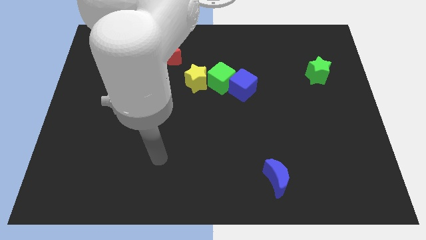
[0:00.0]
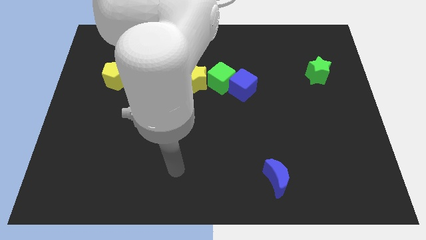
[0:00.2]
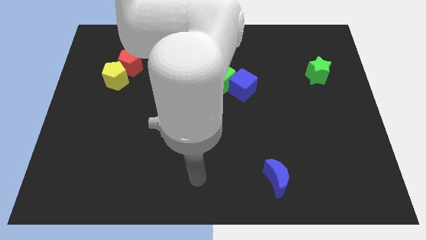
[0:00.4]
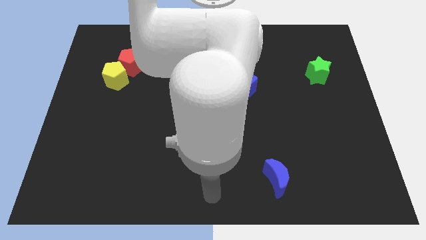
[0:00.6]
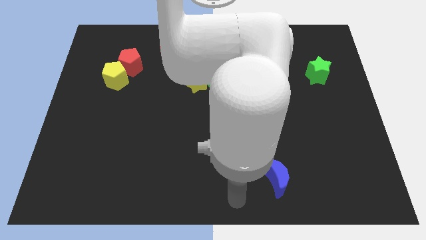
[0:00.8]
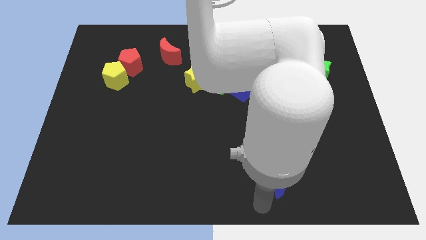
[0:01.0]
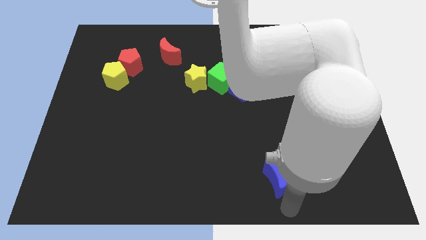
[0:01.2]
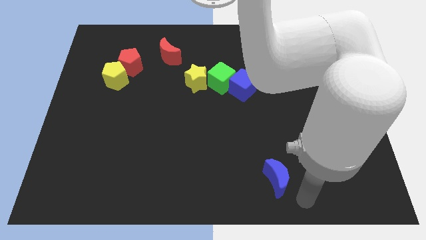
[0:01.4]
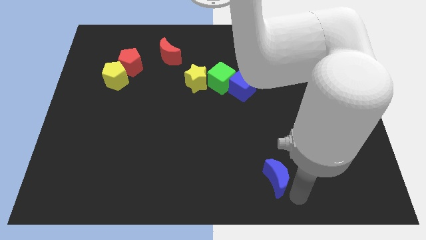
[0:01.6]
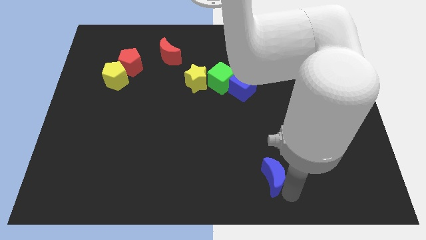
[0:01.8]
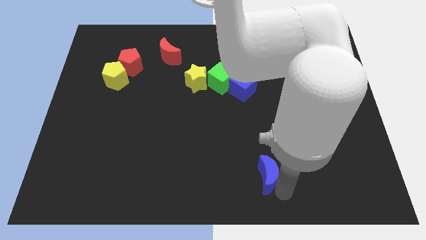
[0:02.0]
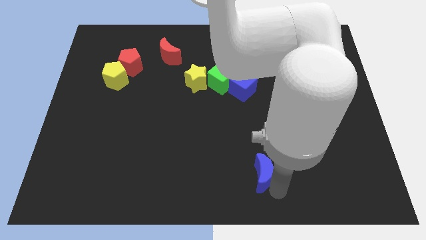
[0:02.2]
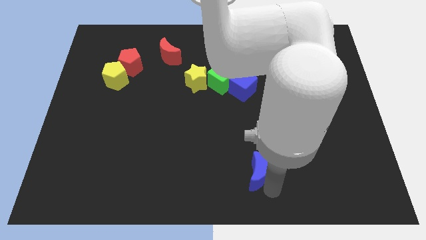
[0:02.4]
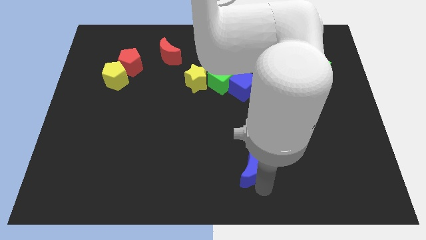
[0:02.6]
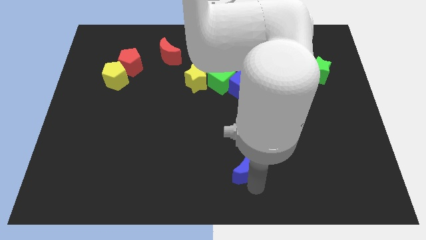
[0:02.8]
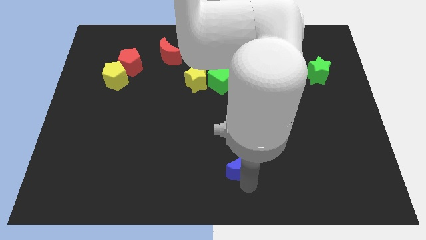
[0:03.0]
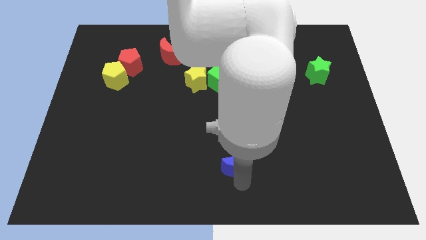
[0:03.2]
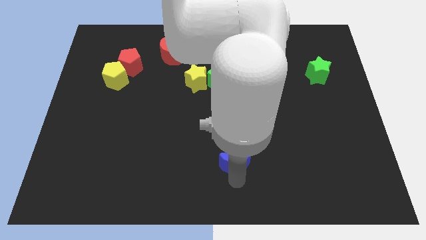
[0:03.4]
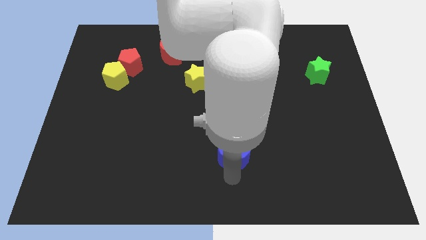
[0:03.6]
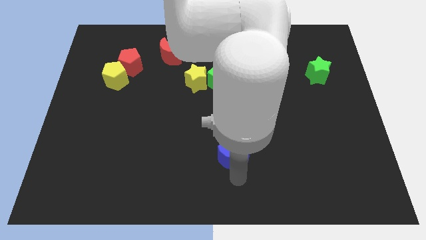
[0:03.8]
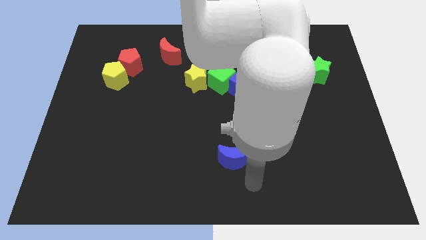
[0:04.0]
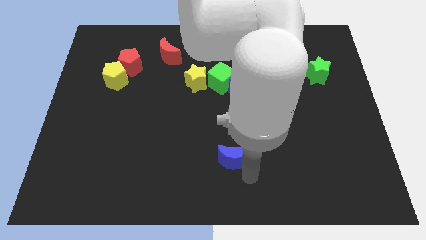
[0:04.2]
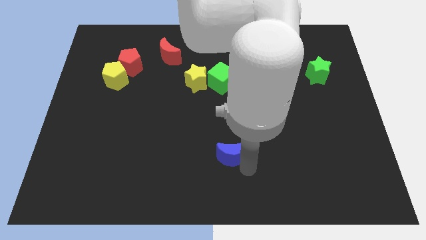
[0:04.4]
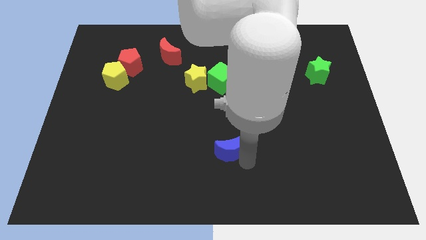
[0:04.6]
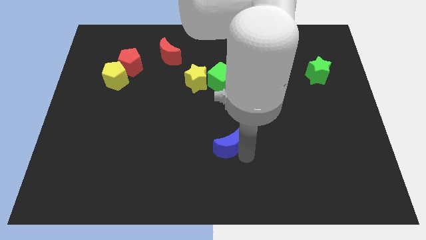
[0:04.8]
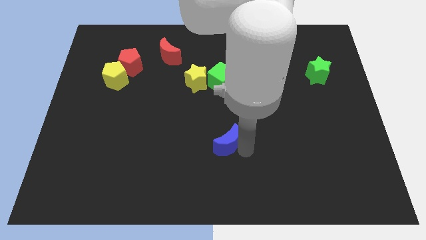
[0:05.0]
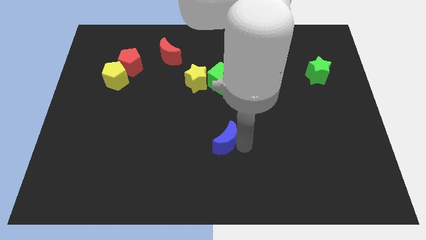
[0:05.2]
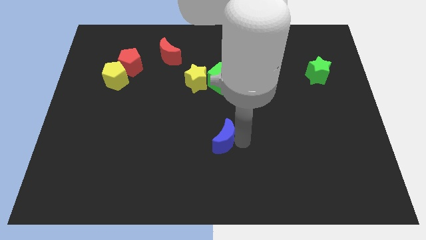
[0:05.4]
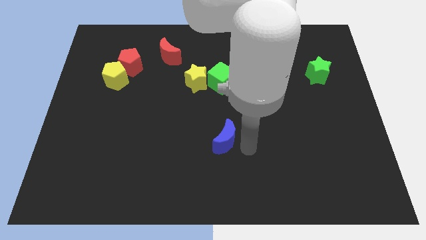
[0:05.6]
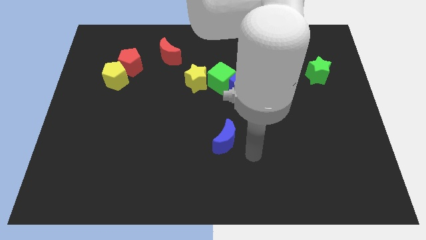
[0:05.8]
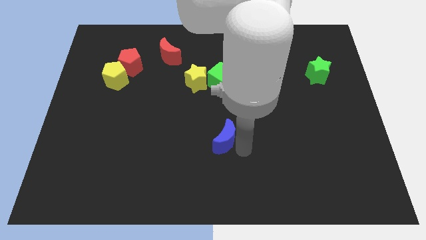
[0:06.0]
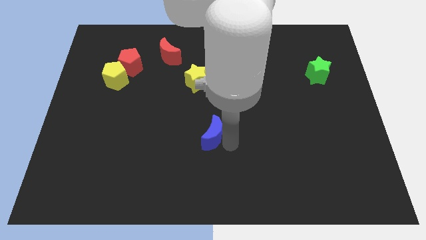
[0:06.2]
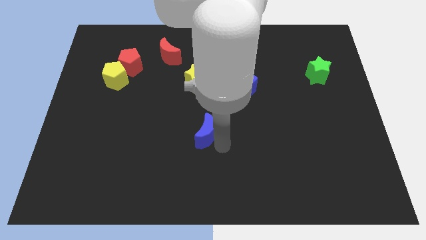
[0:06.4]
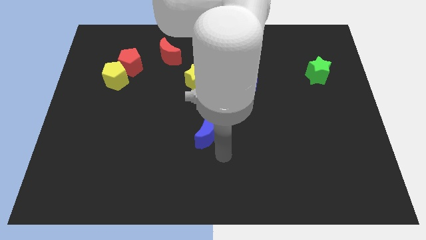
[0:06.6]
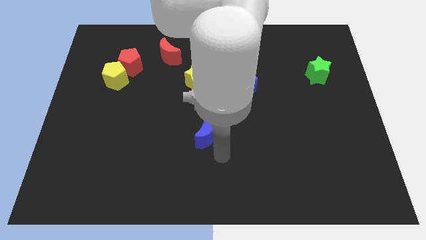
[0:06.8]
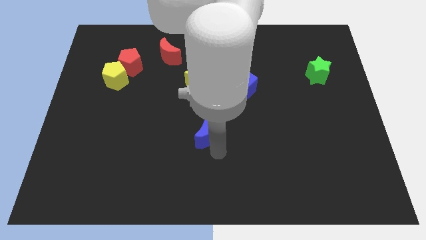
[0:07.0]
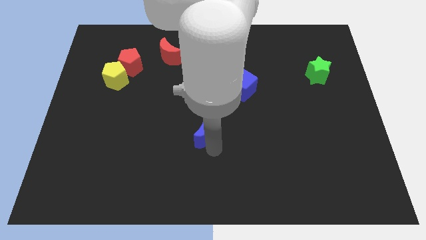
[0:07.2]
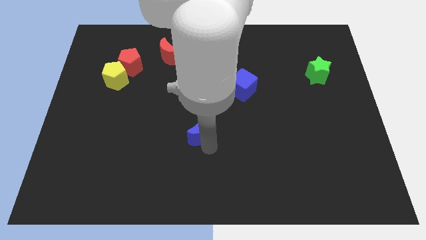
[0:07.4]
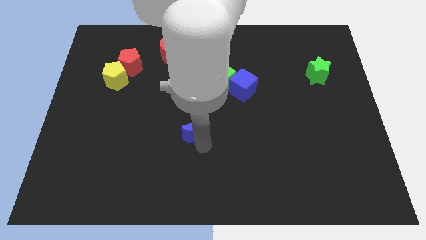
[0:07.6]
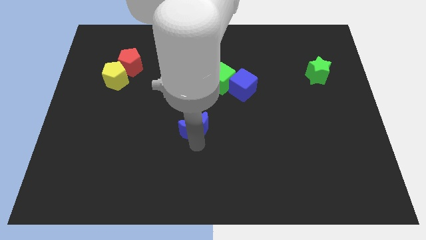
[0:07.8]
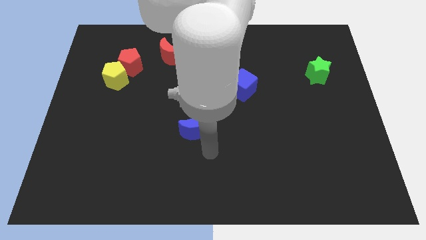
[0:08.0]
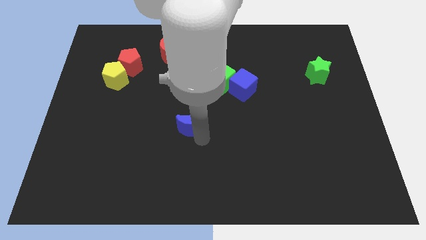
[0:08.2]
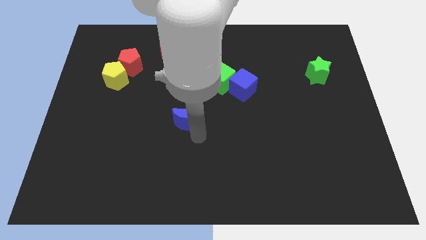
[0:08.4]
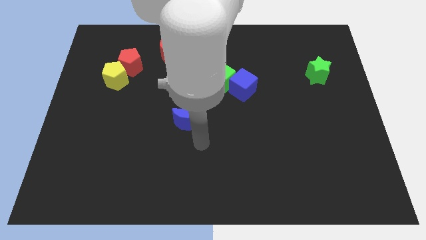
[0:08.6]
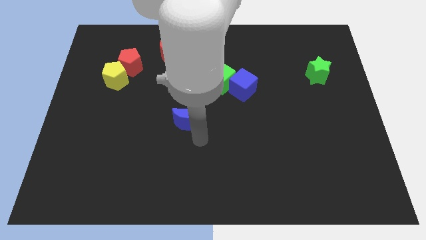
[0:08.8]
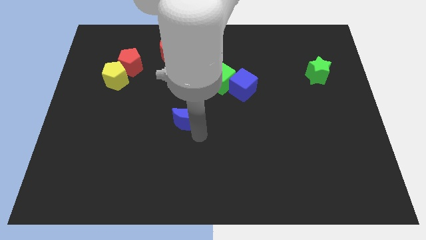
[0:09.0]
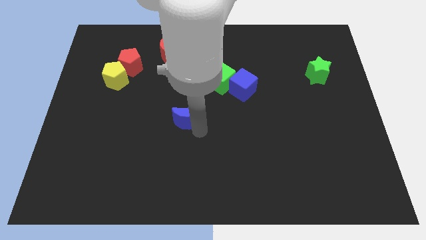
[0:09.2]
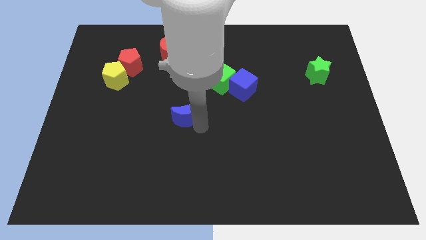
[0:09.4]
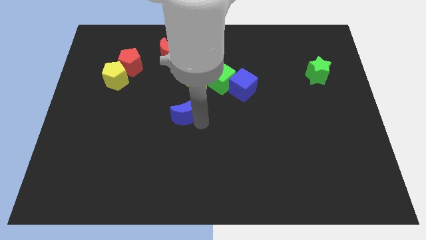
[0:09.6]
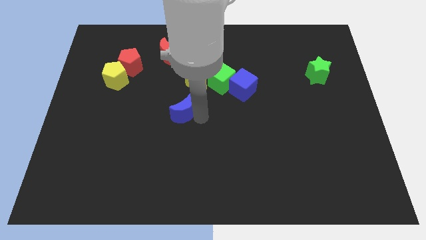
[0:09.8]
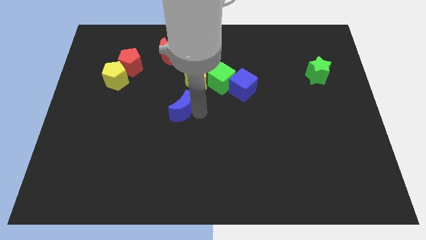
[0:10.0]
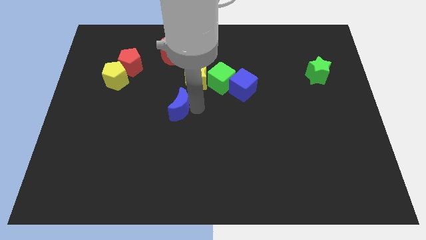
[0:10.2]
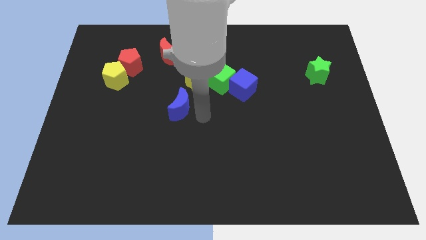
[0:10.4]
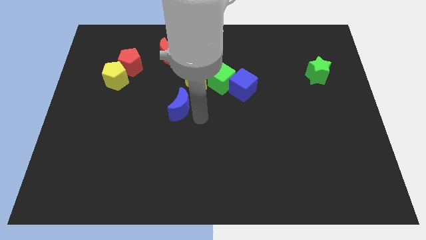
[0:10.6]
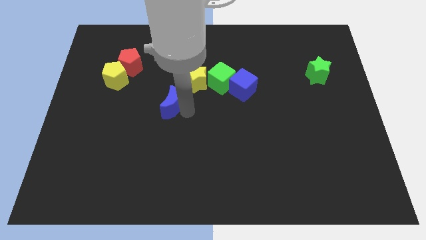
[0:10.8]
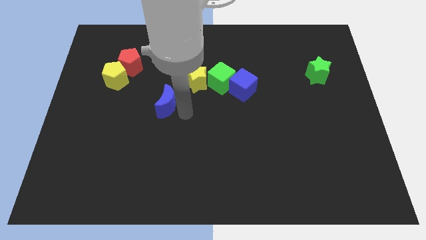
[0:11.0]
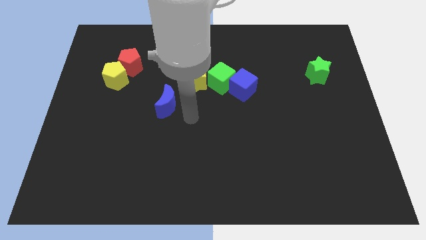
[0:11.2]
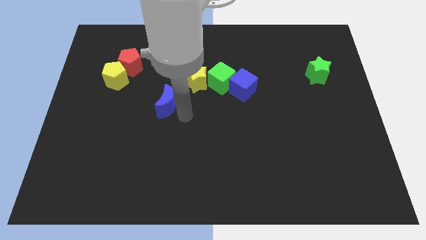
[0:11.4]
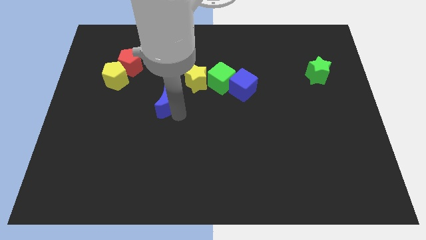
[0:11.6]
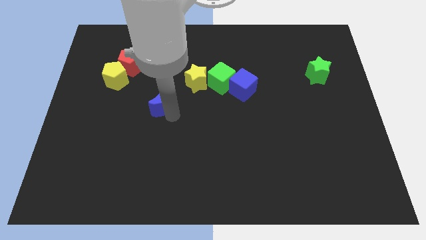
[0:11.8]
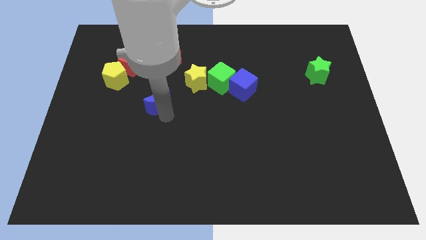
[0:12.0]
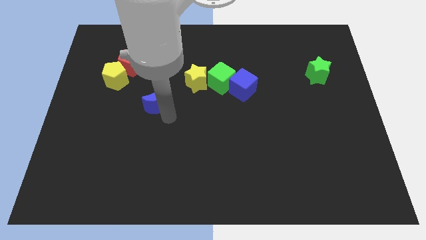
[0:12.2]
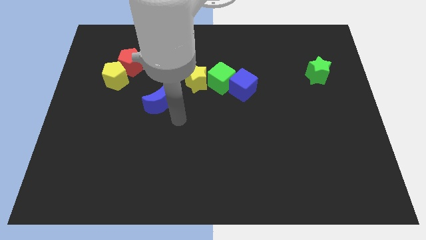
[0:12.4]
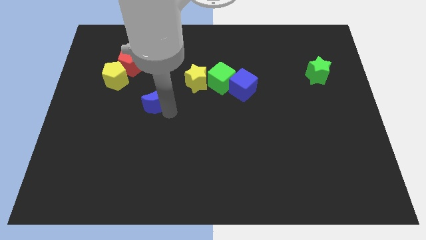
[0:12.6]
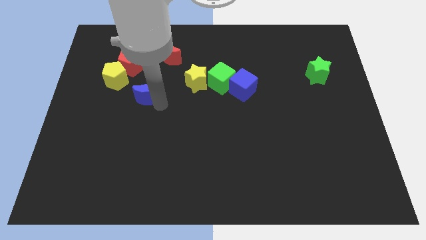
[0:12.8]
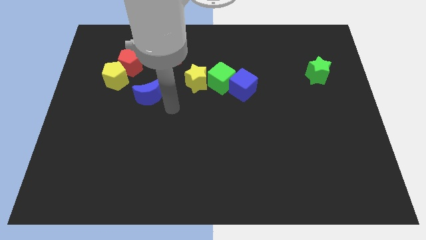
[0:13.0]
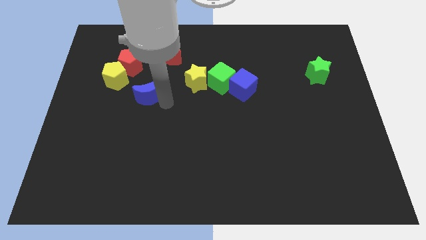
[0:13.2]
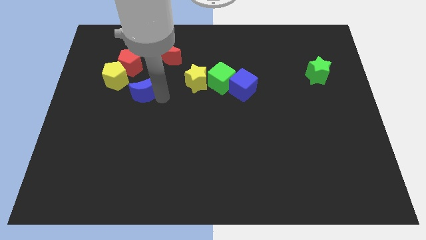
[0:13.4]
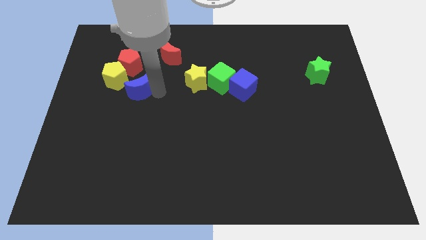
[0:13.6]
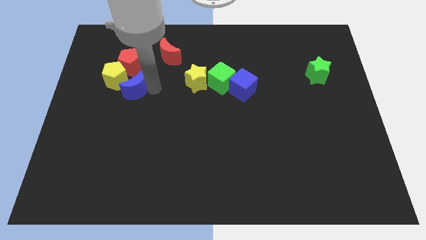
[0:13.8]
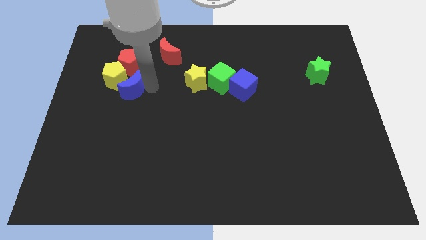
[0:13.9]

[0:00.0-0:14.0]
put the blue moon to the yellow pentagon

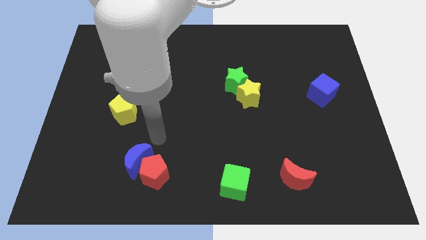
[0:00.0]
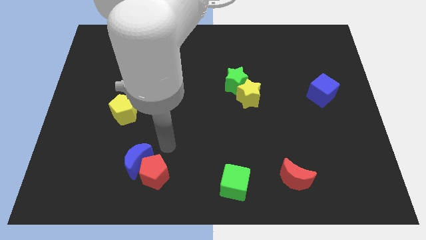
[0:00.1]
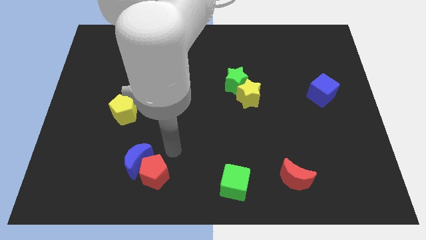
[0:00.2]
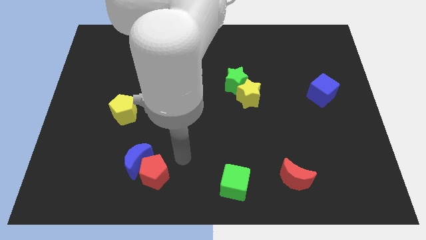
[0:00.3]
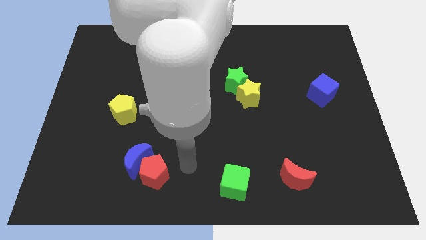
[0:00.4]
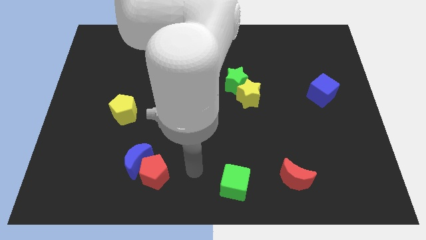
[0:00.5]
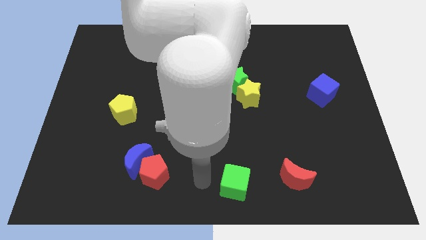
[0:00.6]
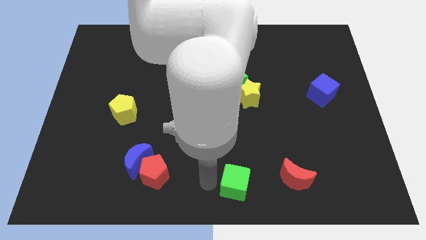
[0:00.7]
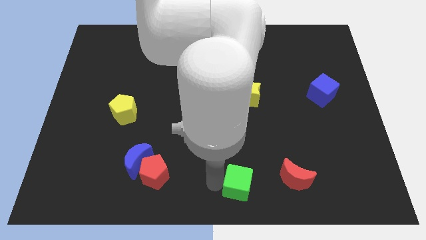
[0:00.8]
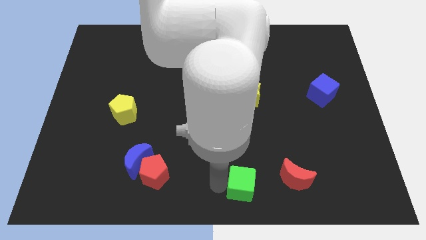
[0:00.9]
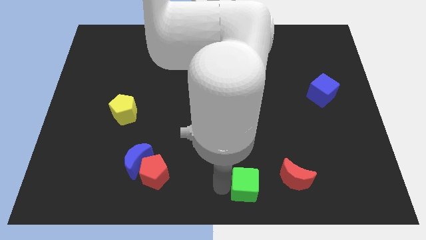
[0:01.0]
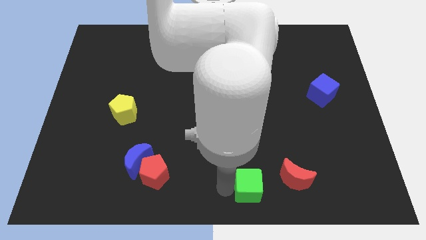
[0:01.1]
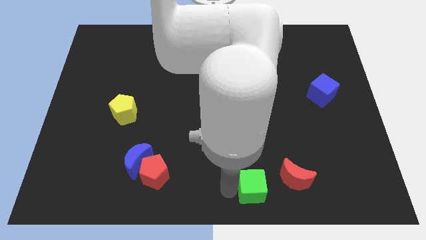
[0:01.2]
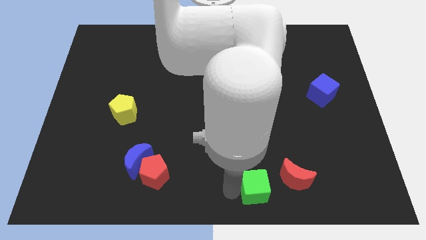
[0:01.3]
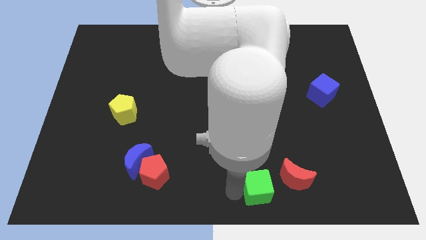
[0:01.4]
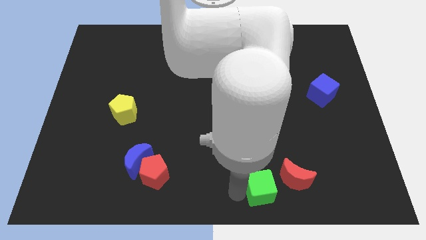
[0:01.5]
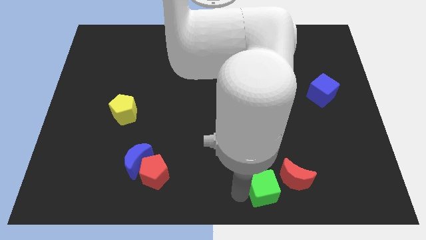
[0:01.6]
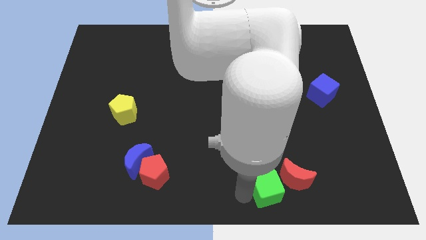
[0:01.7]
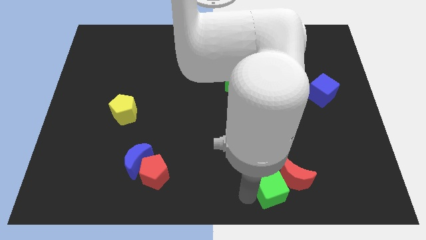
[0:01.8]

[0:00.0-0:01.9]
slide the green cube close to the red moon
